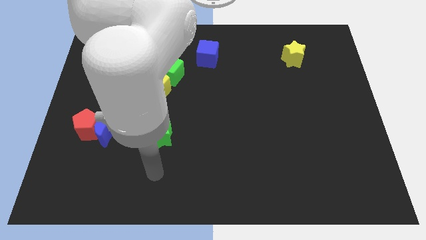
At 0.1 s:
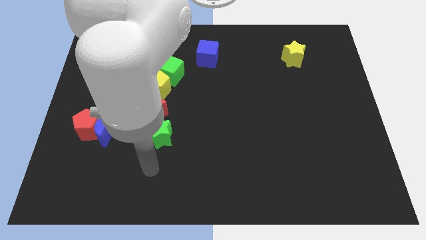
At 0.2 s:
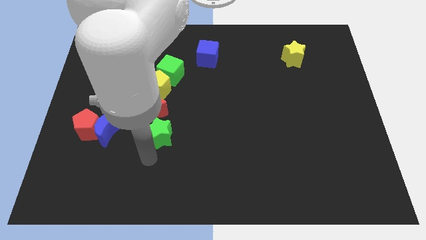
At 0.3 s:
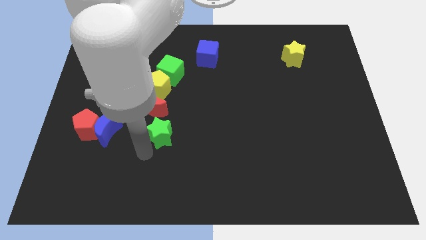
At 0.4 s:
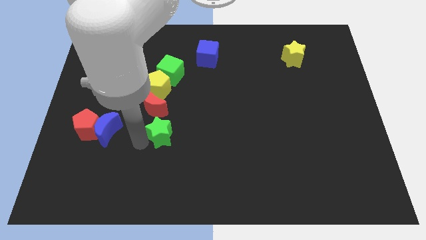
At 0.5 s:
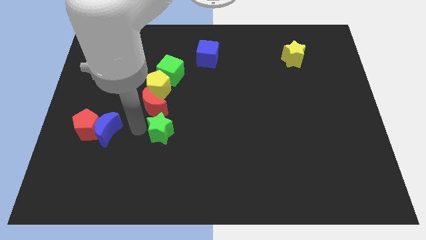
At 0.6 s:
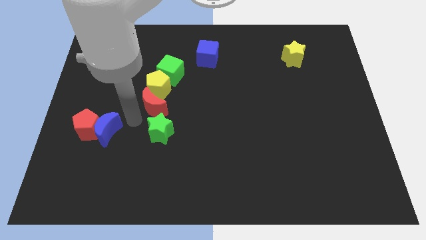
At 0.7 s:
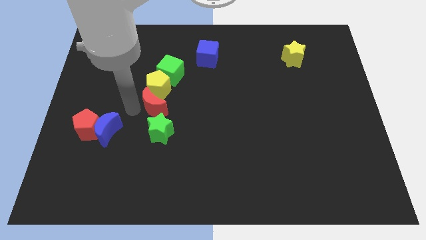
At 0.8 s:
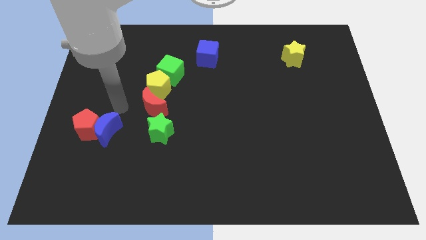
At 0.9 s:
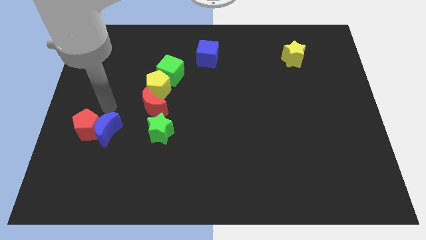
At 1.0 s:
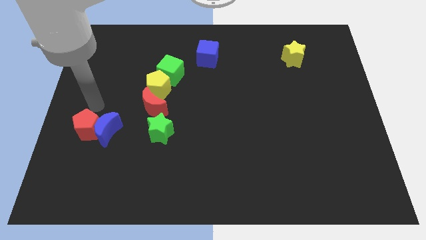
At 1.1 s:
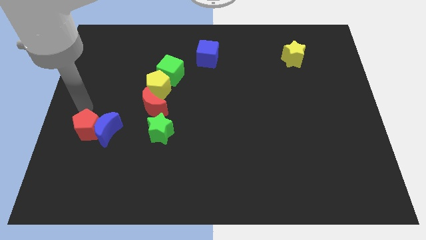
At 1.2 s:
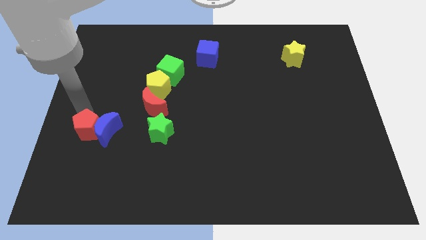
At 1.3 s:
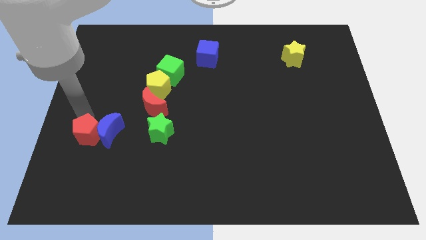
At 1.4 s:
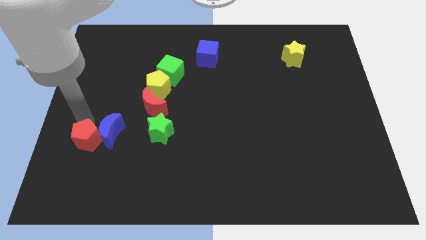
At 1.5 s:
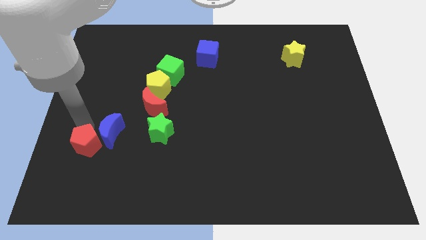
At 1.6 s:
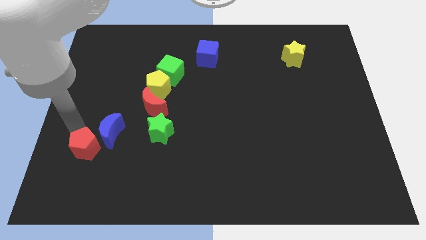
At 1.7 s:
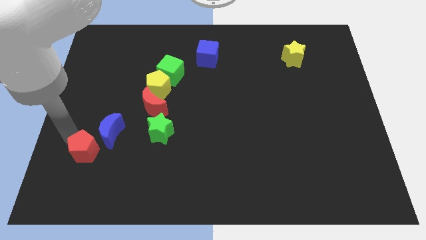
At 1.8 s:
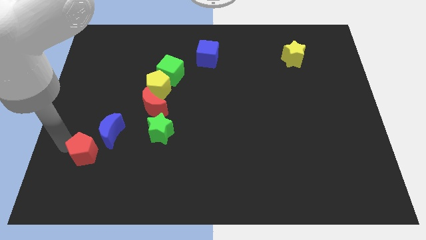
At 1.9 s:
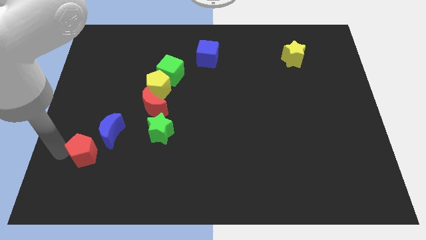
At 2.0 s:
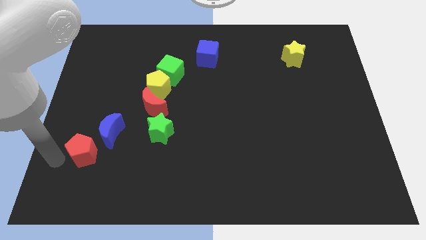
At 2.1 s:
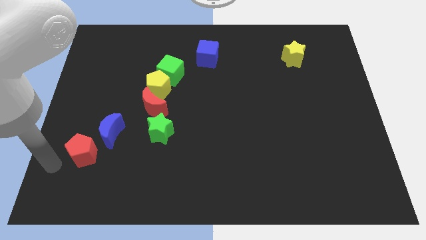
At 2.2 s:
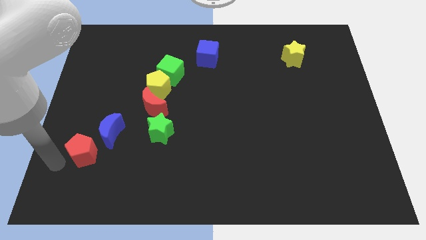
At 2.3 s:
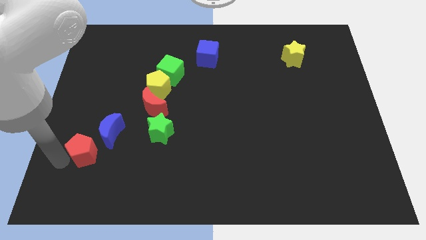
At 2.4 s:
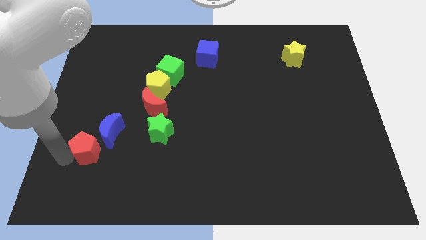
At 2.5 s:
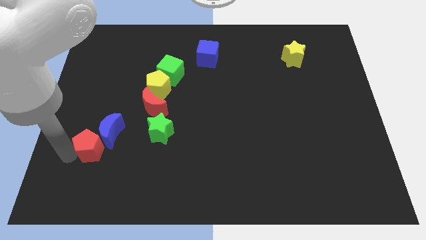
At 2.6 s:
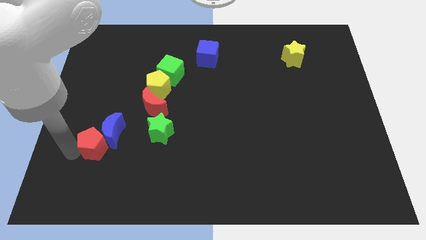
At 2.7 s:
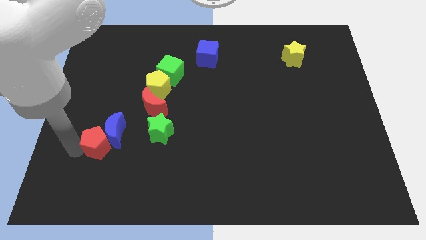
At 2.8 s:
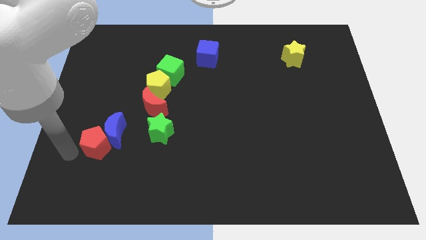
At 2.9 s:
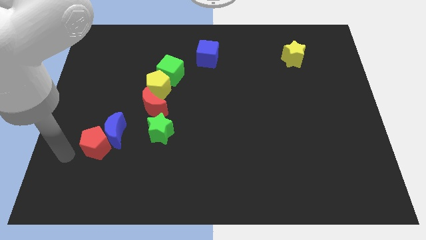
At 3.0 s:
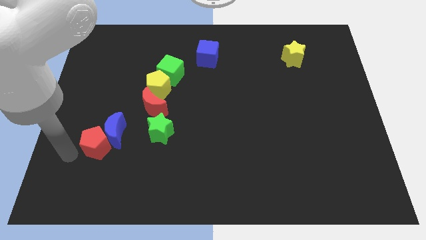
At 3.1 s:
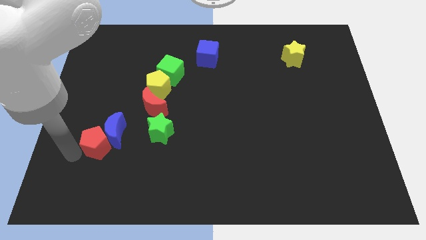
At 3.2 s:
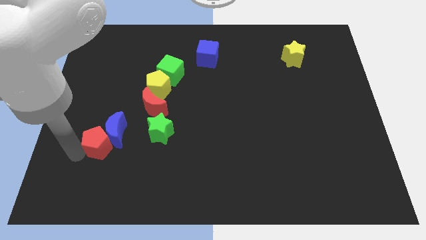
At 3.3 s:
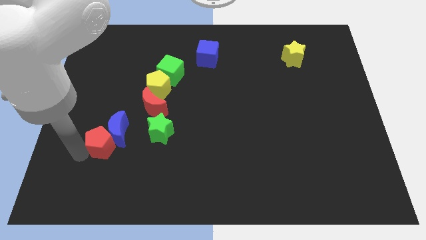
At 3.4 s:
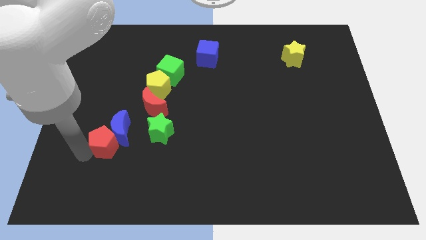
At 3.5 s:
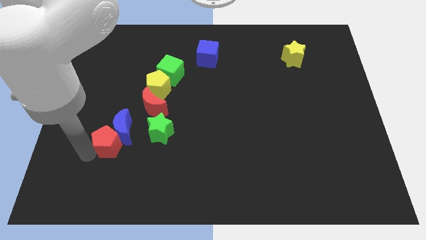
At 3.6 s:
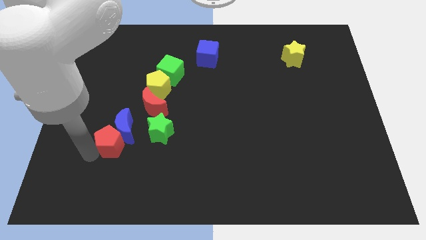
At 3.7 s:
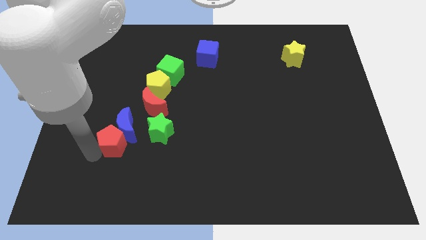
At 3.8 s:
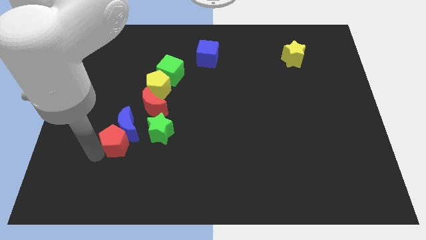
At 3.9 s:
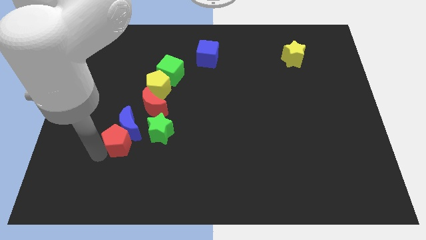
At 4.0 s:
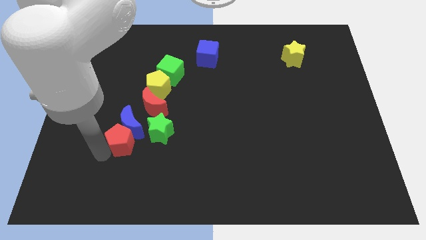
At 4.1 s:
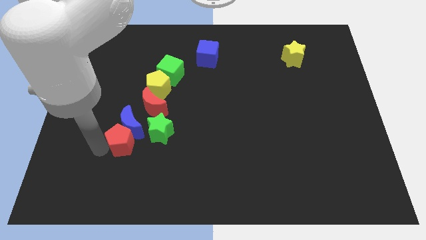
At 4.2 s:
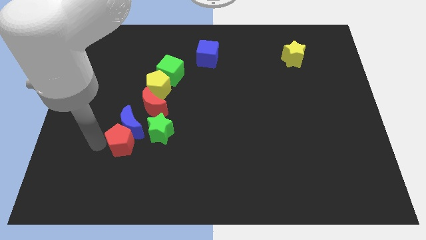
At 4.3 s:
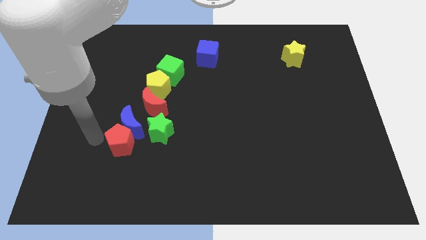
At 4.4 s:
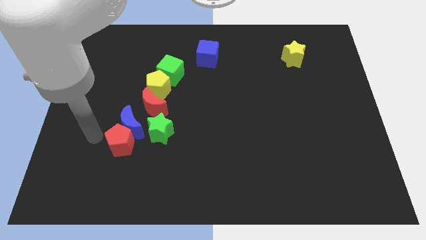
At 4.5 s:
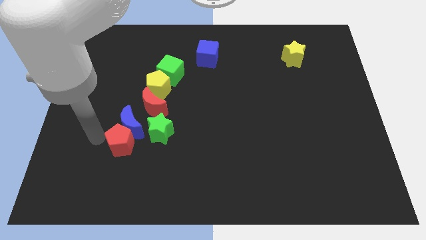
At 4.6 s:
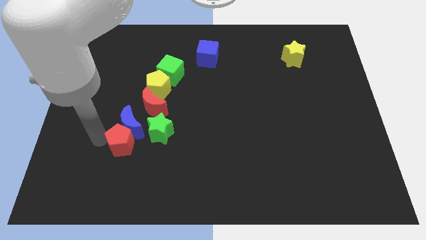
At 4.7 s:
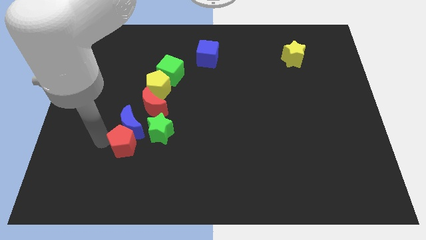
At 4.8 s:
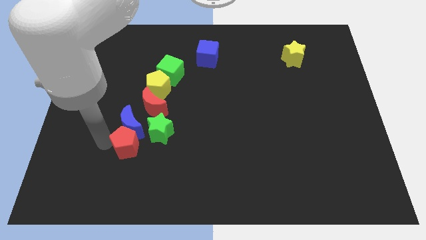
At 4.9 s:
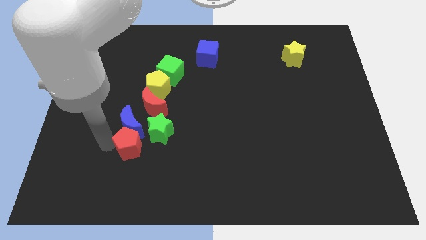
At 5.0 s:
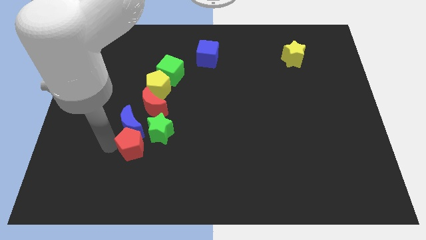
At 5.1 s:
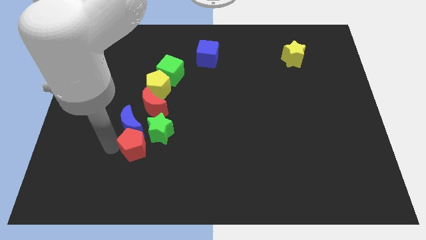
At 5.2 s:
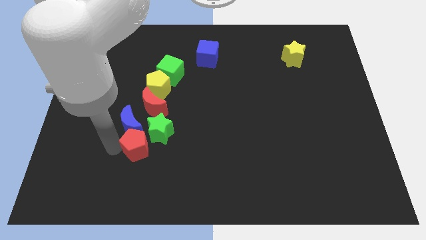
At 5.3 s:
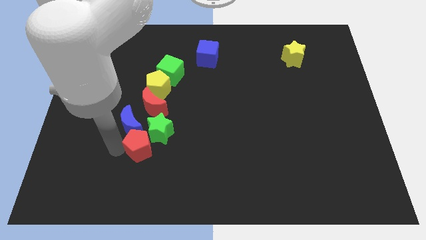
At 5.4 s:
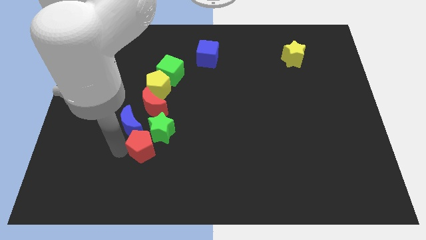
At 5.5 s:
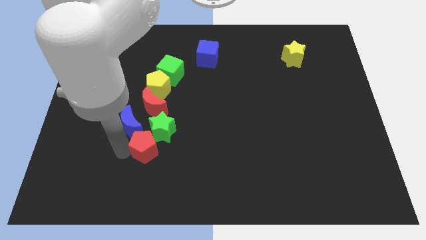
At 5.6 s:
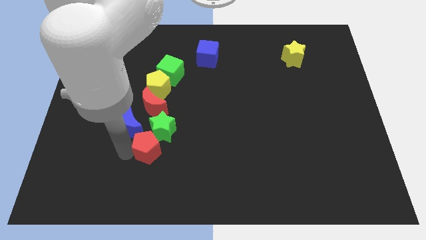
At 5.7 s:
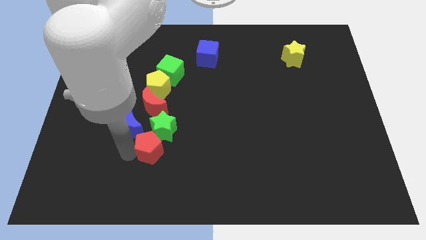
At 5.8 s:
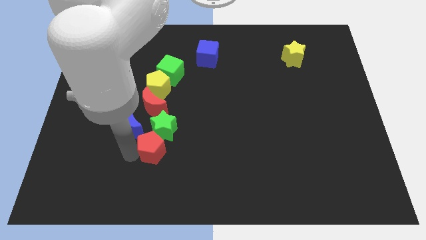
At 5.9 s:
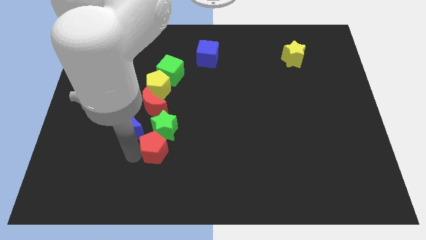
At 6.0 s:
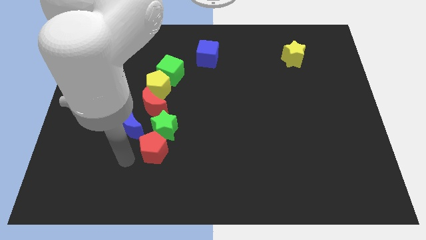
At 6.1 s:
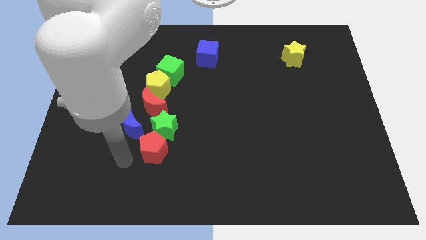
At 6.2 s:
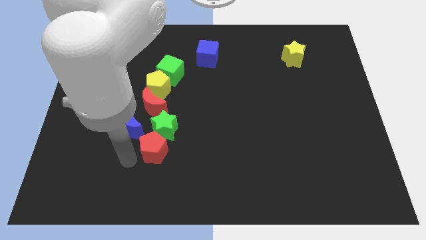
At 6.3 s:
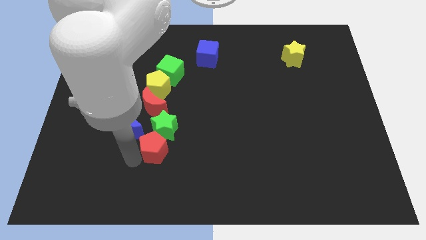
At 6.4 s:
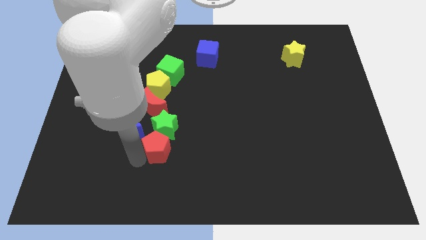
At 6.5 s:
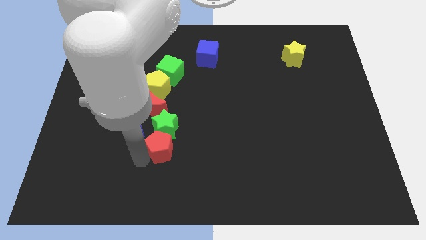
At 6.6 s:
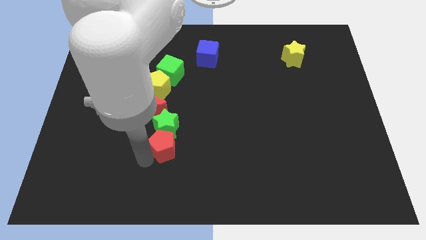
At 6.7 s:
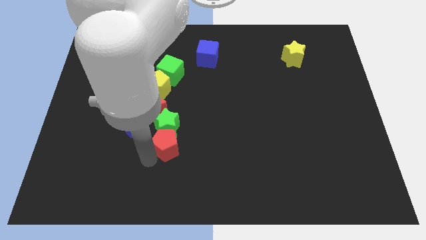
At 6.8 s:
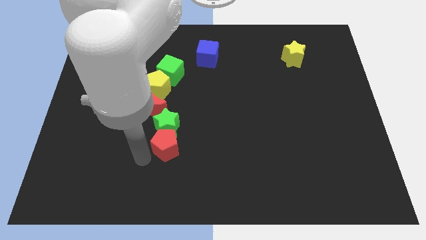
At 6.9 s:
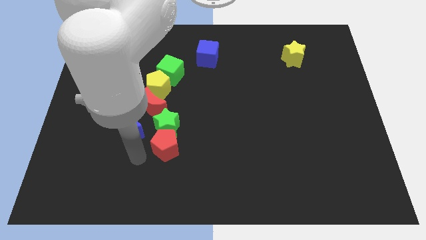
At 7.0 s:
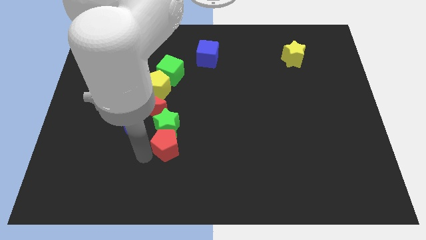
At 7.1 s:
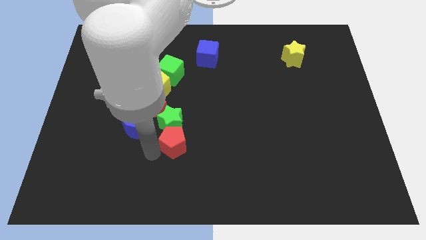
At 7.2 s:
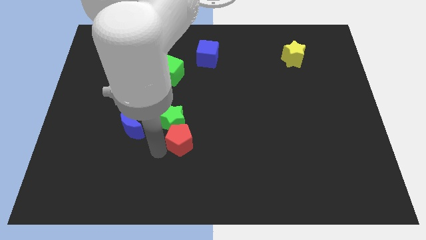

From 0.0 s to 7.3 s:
move the red pentagon right

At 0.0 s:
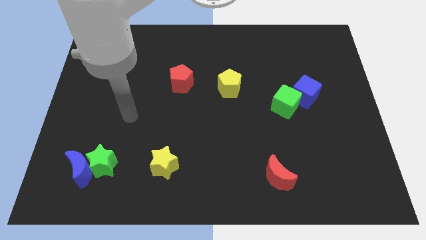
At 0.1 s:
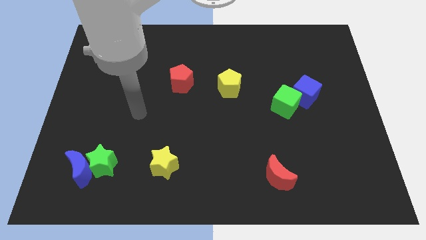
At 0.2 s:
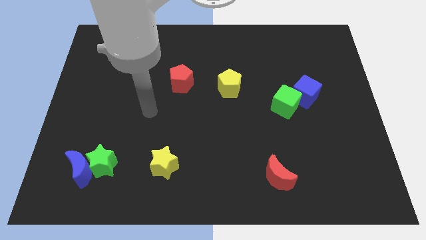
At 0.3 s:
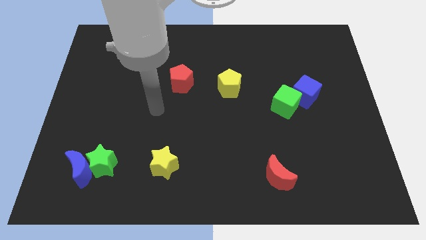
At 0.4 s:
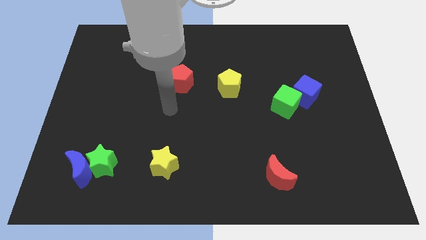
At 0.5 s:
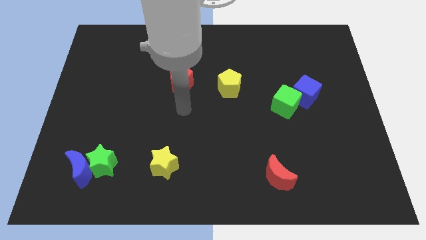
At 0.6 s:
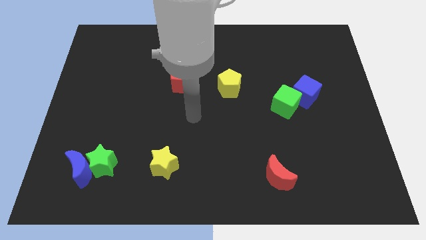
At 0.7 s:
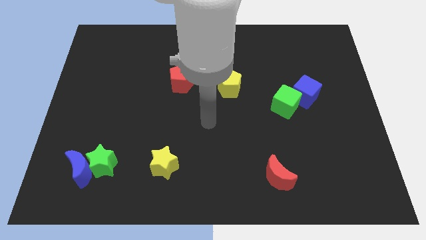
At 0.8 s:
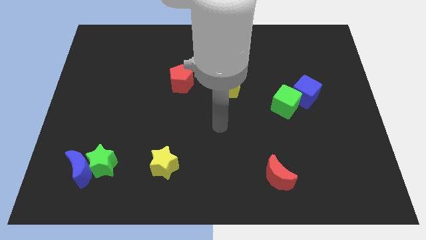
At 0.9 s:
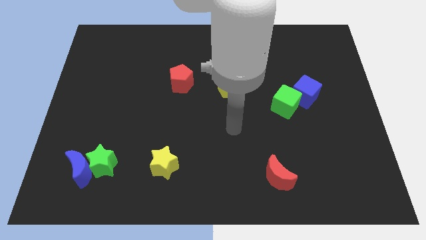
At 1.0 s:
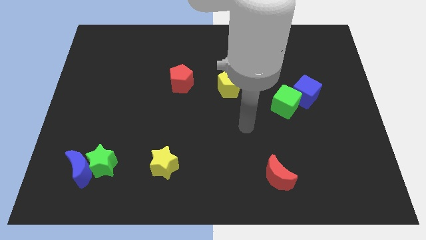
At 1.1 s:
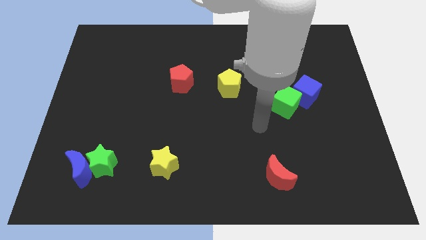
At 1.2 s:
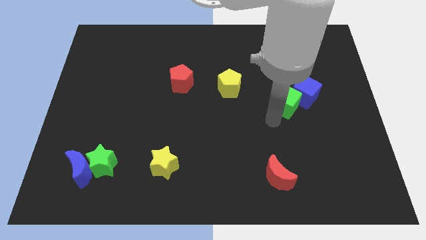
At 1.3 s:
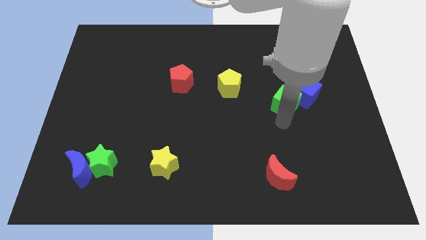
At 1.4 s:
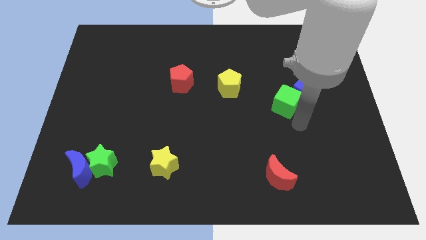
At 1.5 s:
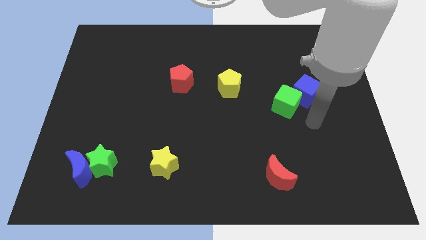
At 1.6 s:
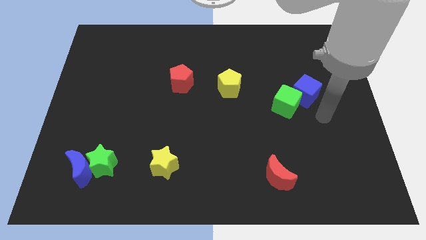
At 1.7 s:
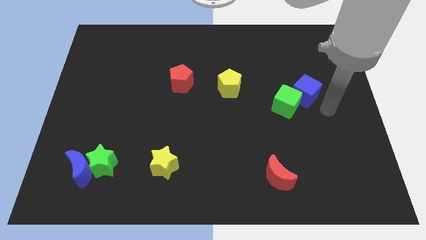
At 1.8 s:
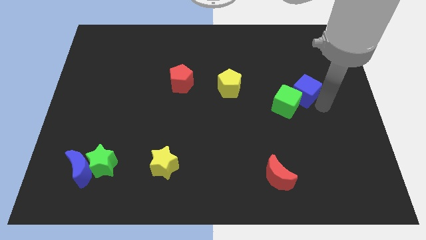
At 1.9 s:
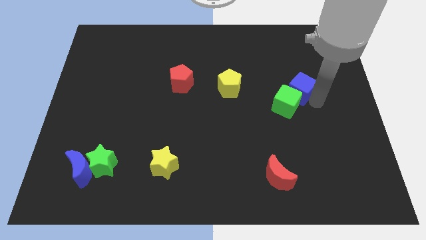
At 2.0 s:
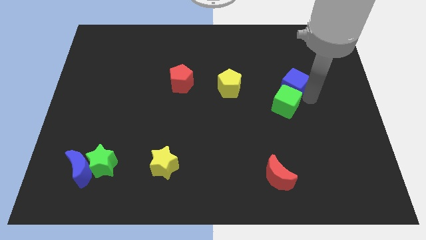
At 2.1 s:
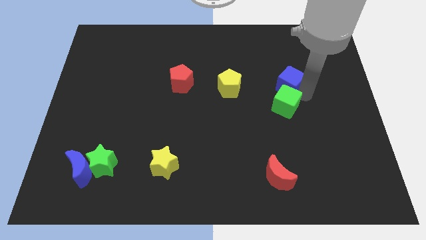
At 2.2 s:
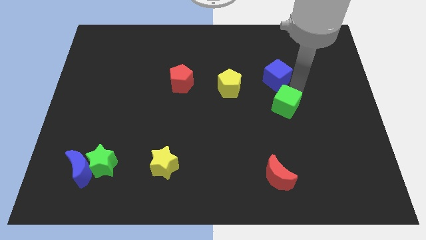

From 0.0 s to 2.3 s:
slightly push the blue cube diagonally upwards and to the left
